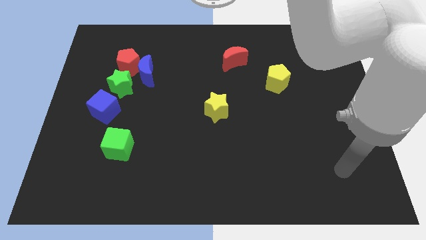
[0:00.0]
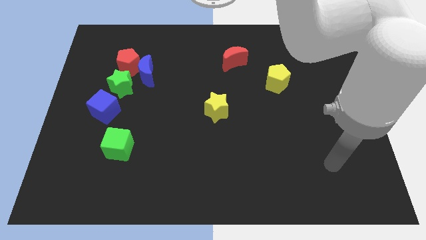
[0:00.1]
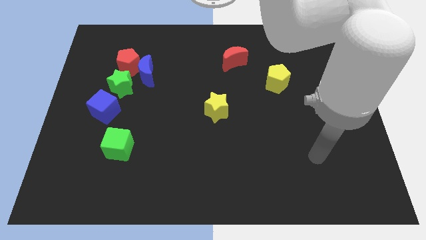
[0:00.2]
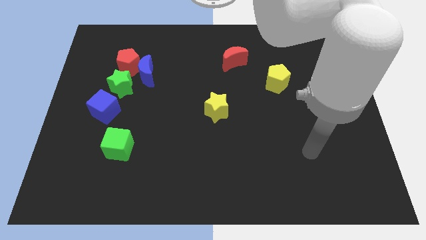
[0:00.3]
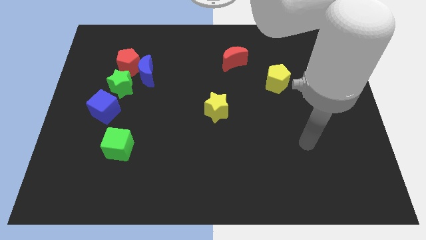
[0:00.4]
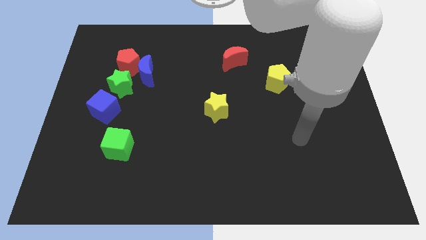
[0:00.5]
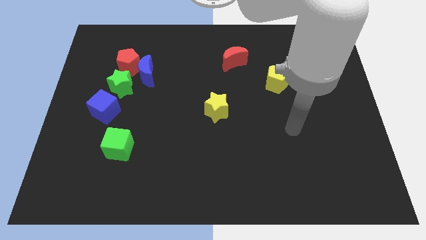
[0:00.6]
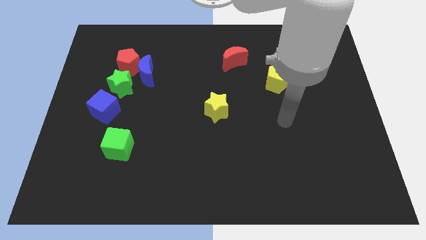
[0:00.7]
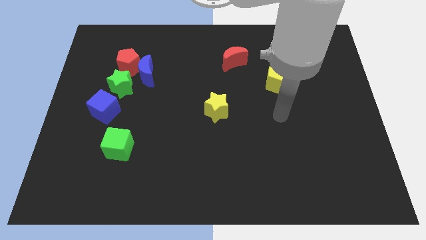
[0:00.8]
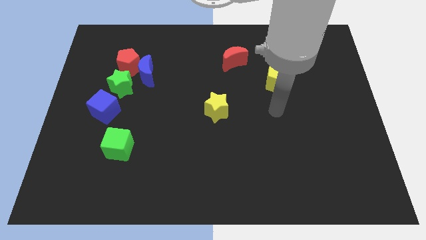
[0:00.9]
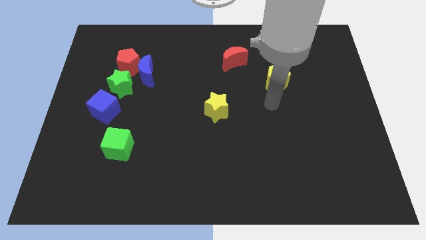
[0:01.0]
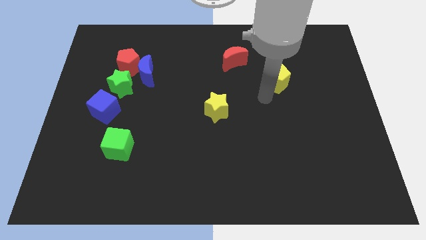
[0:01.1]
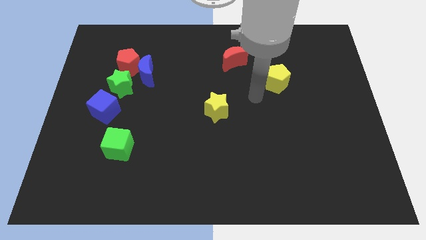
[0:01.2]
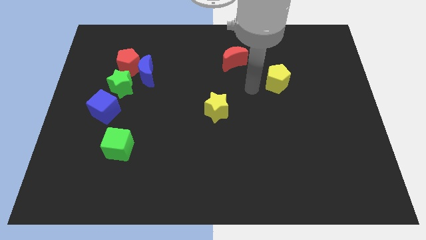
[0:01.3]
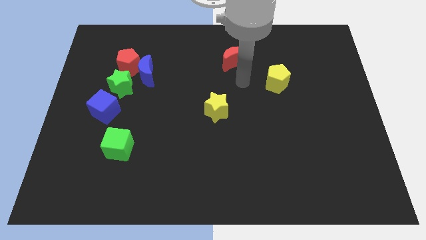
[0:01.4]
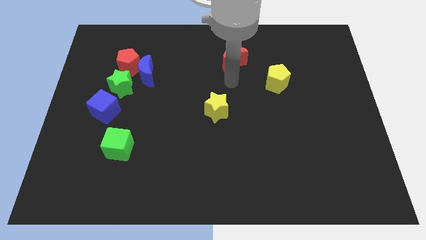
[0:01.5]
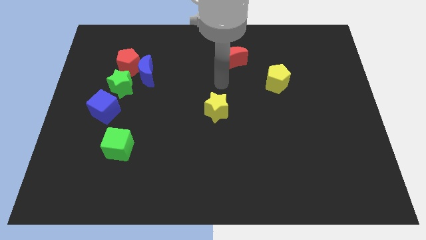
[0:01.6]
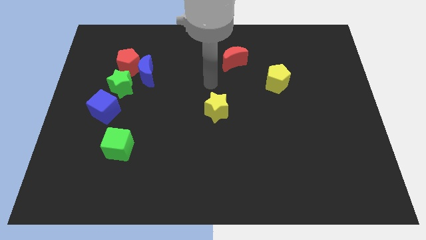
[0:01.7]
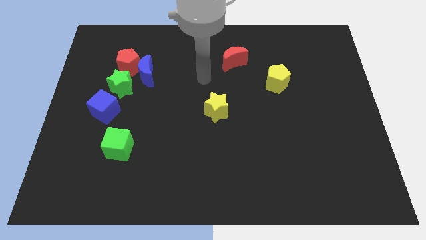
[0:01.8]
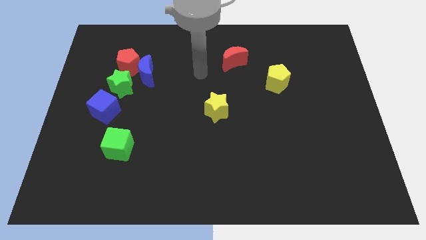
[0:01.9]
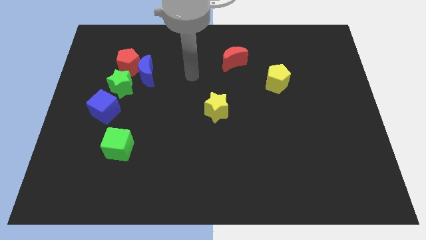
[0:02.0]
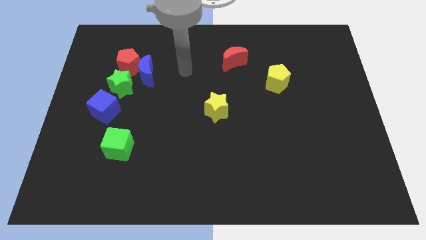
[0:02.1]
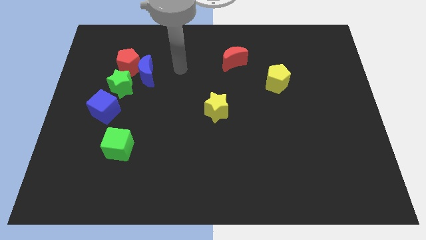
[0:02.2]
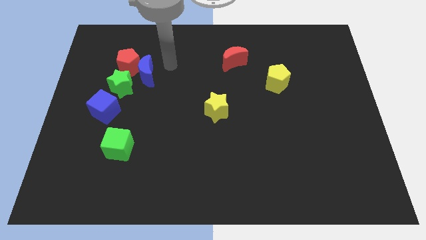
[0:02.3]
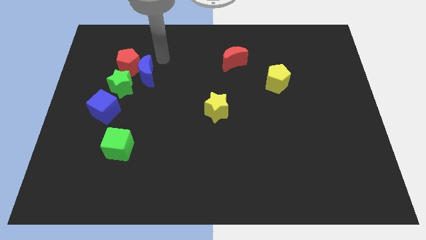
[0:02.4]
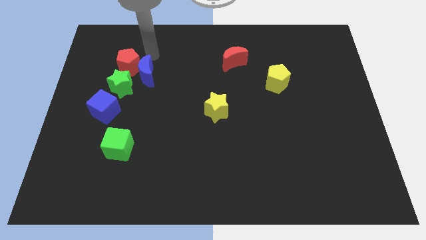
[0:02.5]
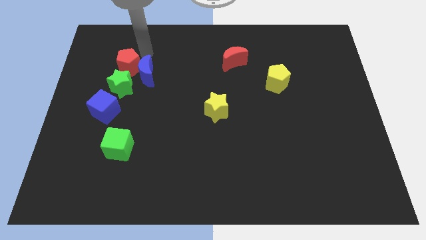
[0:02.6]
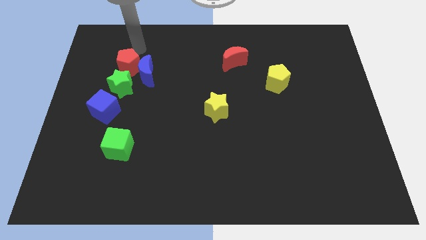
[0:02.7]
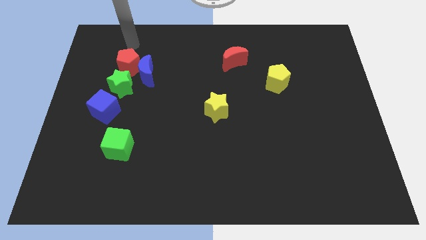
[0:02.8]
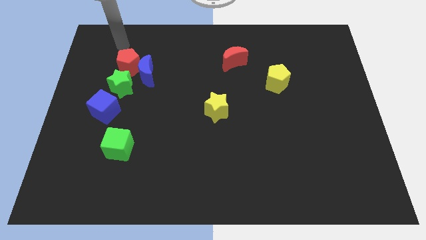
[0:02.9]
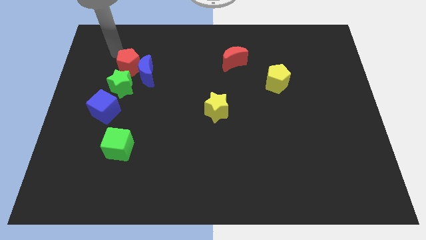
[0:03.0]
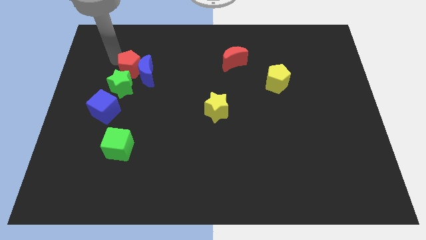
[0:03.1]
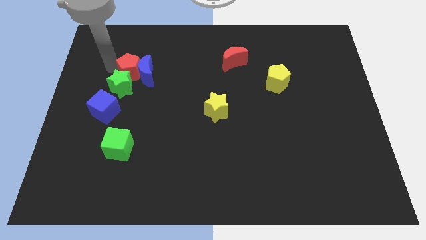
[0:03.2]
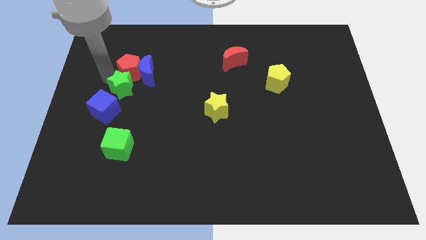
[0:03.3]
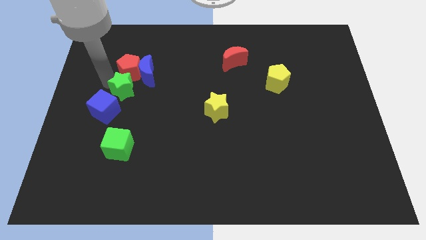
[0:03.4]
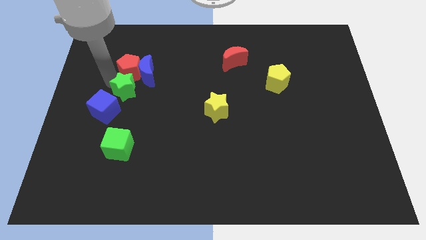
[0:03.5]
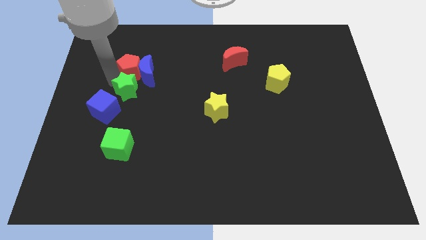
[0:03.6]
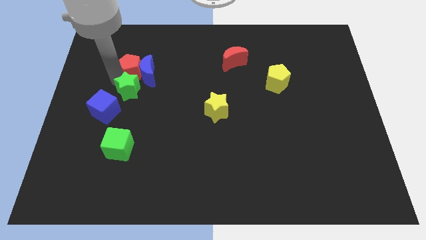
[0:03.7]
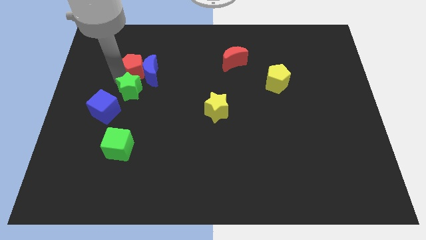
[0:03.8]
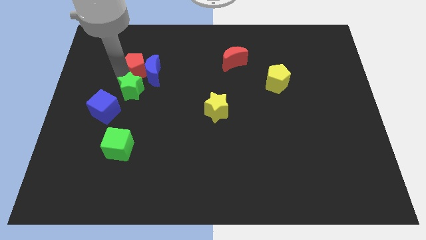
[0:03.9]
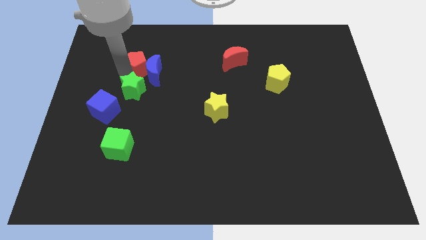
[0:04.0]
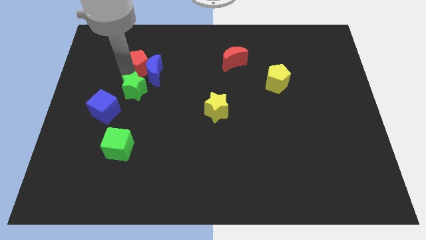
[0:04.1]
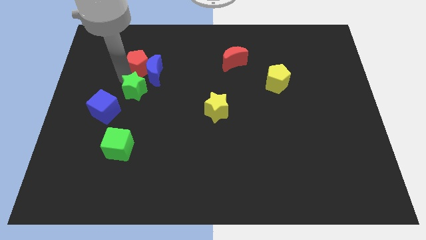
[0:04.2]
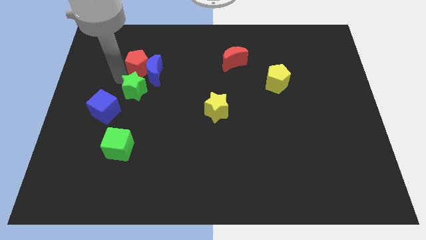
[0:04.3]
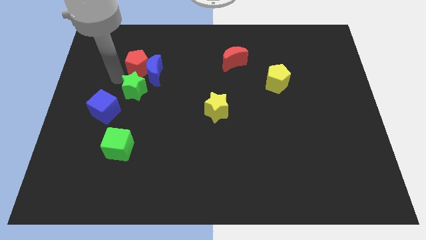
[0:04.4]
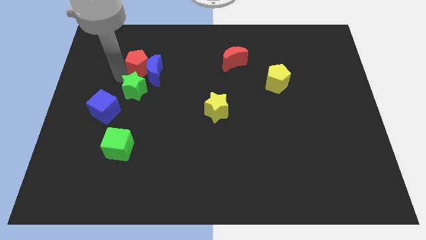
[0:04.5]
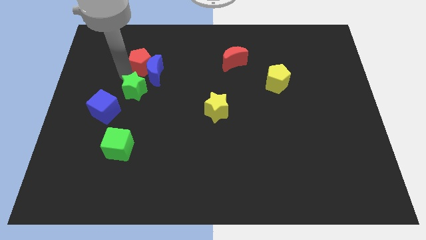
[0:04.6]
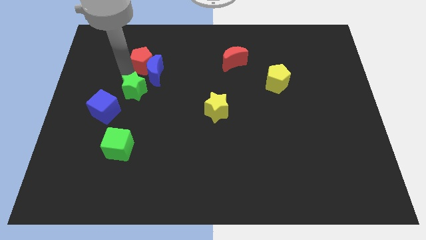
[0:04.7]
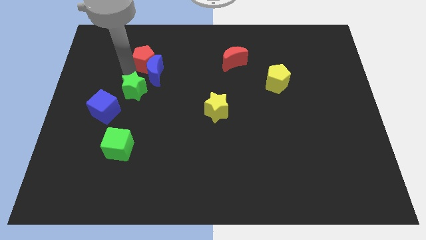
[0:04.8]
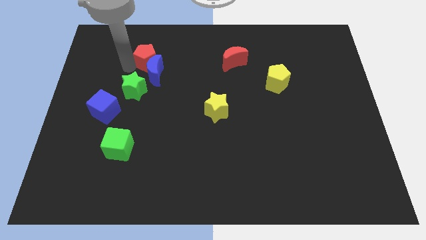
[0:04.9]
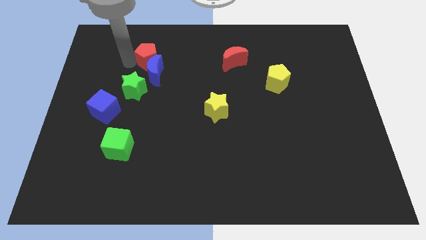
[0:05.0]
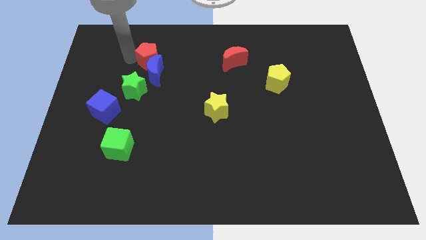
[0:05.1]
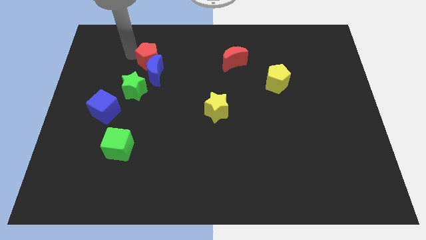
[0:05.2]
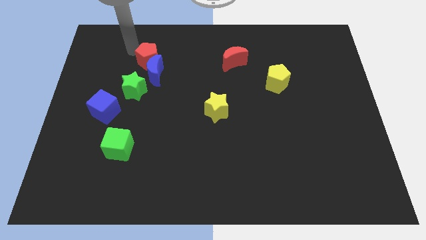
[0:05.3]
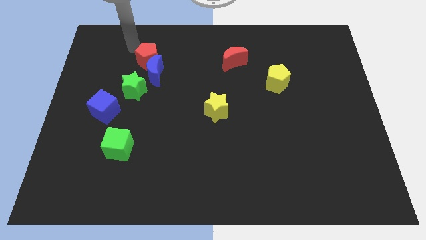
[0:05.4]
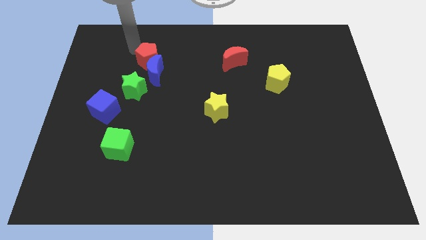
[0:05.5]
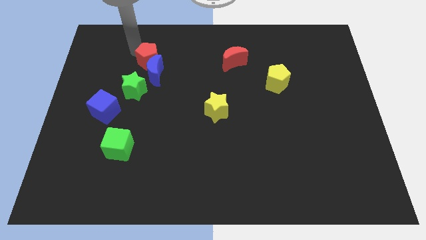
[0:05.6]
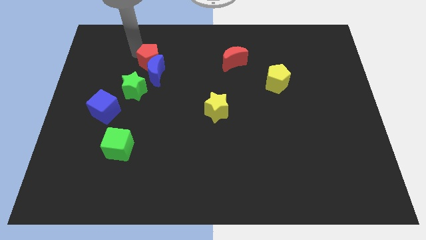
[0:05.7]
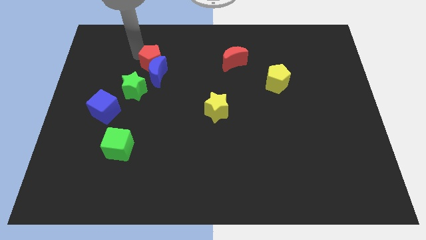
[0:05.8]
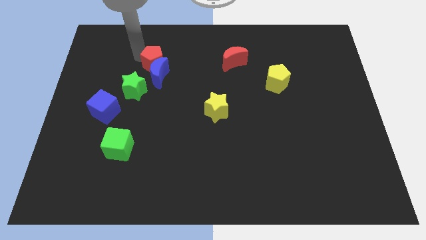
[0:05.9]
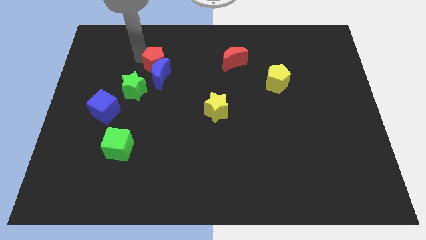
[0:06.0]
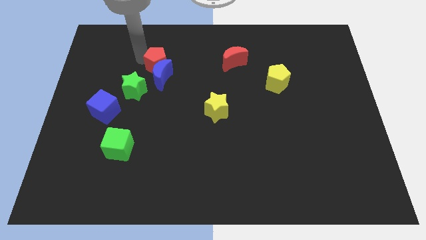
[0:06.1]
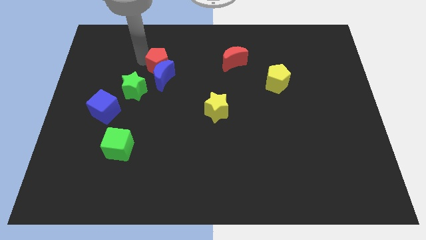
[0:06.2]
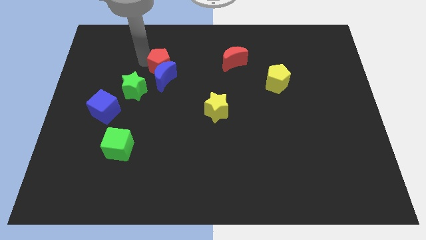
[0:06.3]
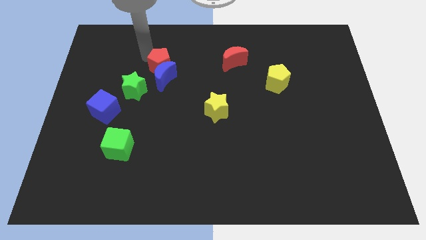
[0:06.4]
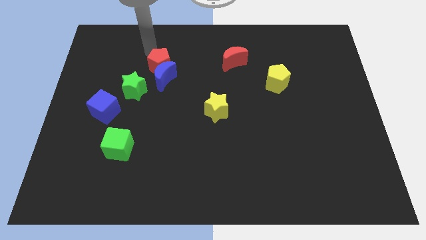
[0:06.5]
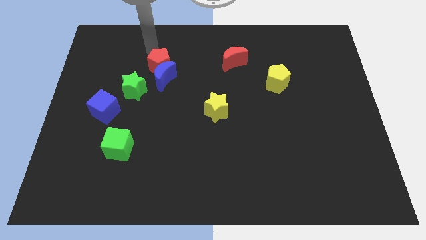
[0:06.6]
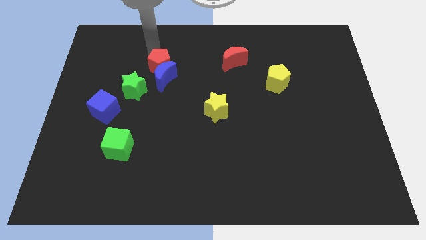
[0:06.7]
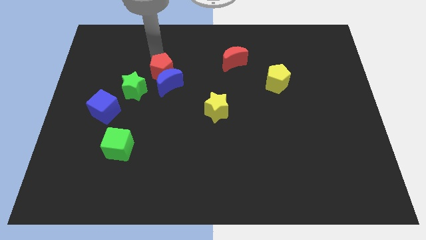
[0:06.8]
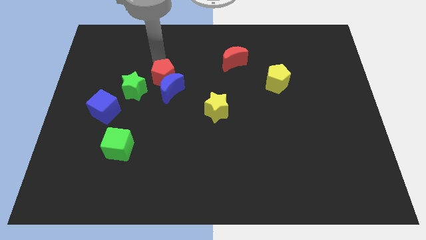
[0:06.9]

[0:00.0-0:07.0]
slightly slide the red pentagon down and to the right diagonally

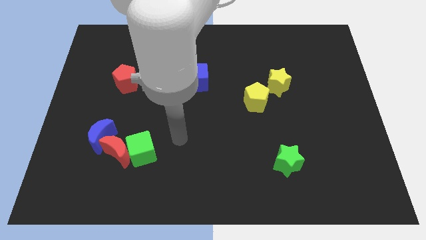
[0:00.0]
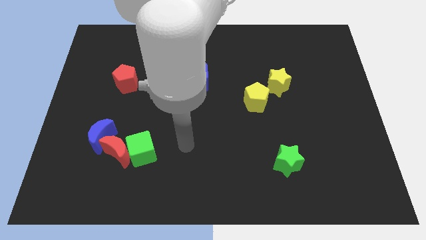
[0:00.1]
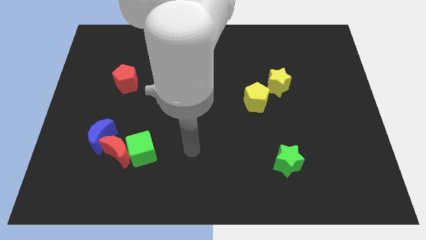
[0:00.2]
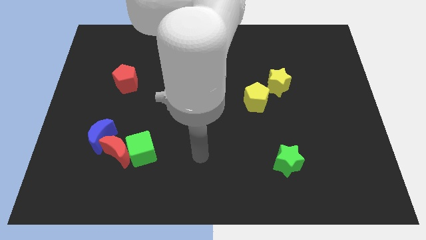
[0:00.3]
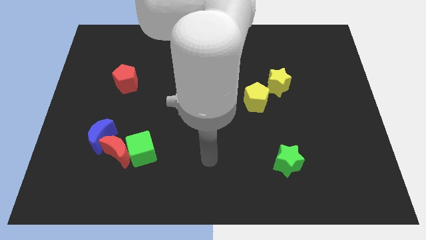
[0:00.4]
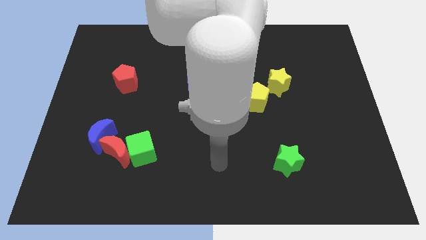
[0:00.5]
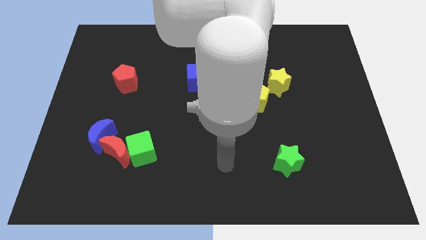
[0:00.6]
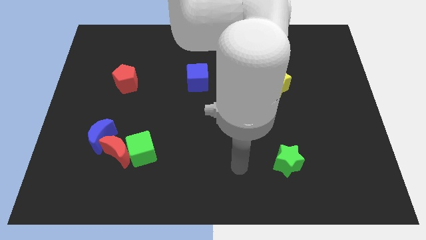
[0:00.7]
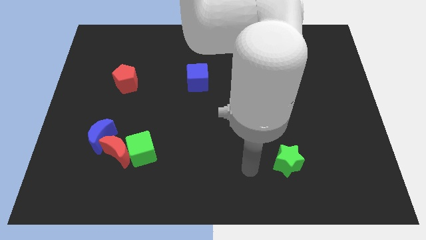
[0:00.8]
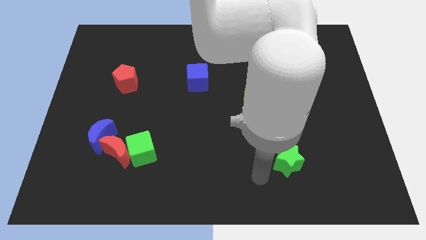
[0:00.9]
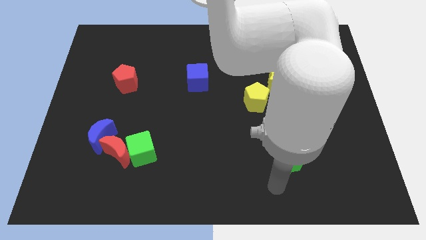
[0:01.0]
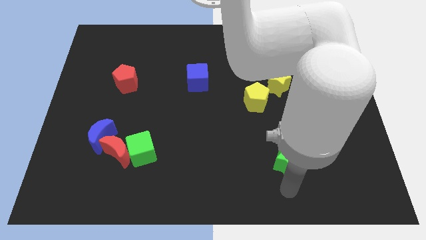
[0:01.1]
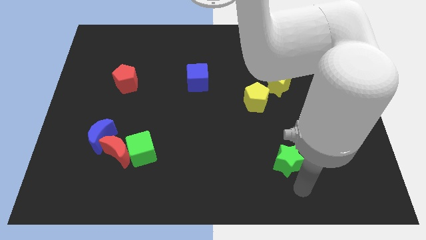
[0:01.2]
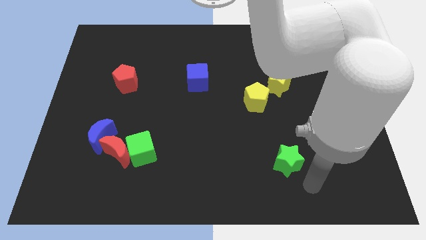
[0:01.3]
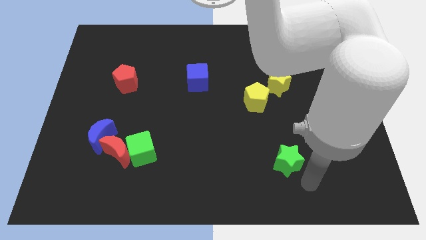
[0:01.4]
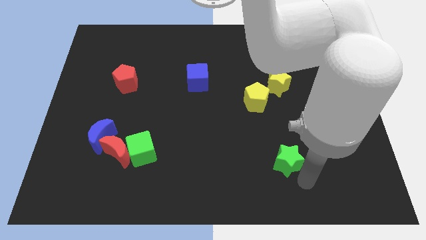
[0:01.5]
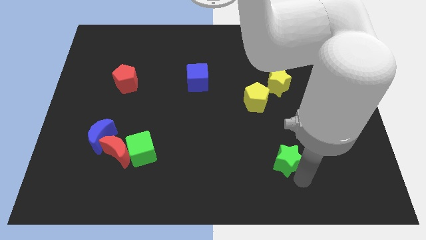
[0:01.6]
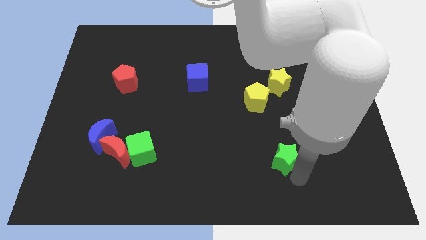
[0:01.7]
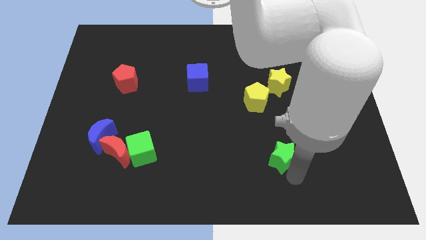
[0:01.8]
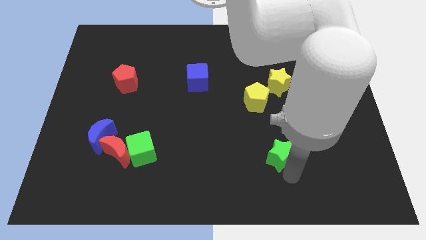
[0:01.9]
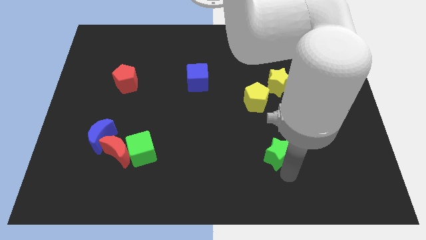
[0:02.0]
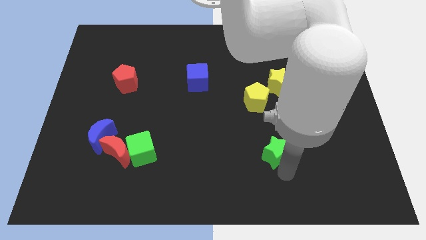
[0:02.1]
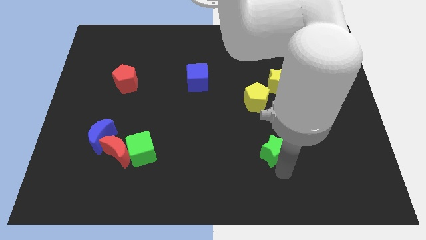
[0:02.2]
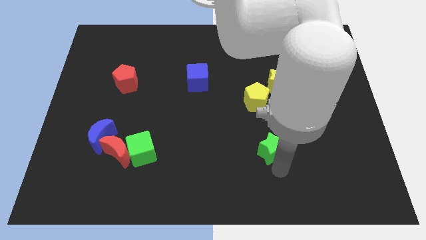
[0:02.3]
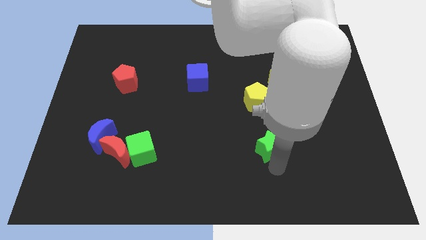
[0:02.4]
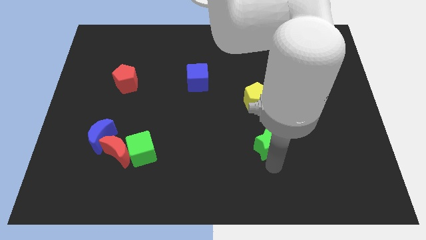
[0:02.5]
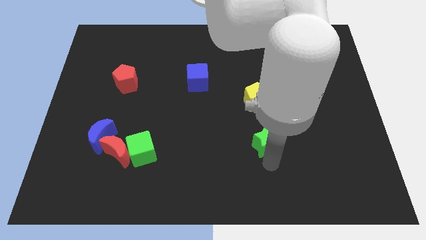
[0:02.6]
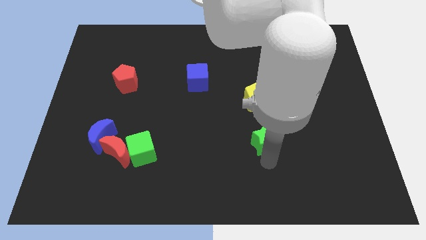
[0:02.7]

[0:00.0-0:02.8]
slightly move the green star up and then left
